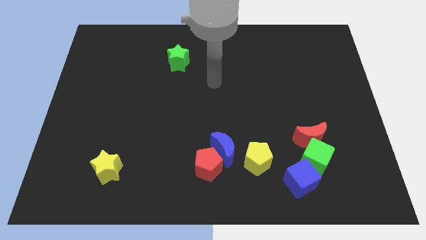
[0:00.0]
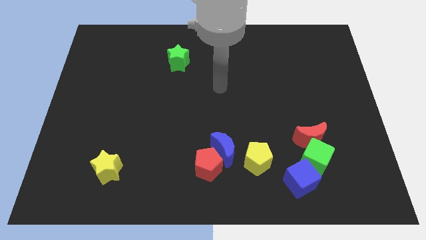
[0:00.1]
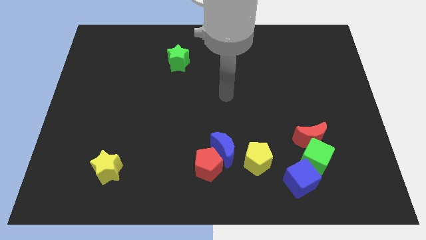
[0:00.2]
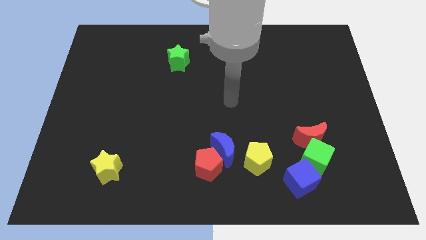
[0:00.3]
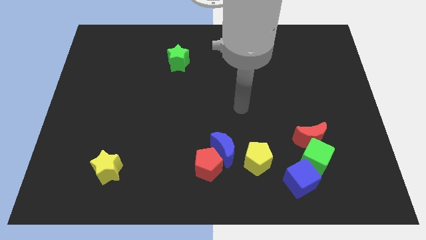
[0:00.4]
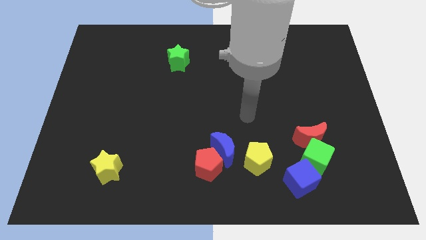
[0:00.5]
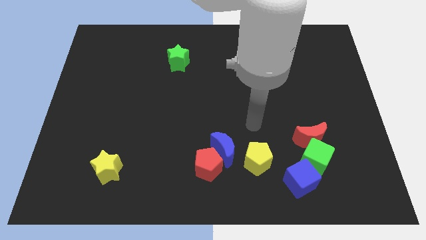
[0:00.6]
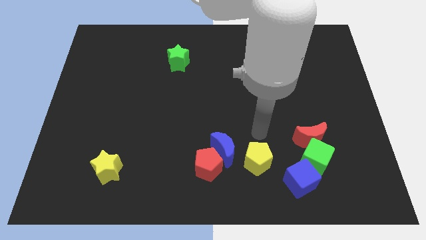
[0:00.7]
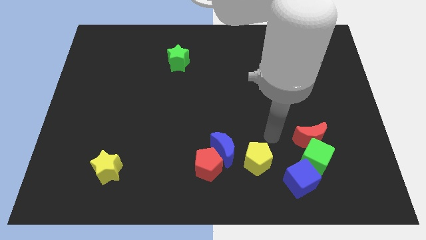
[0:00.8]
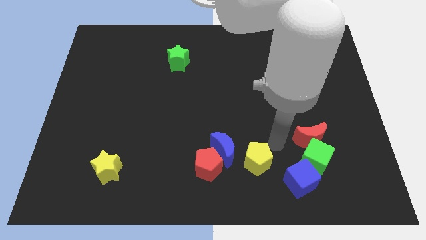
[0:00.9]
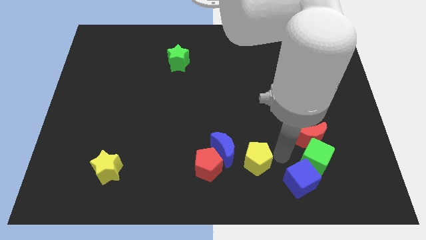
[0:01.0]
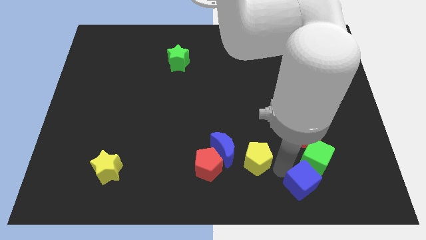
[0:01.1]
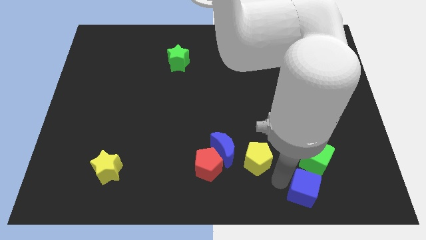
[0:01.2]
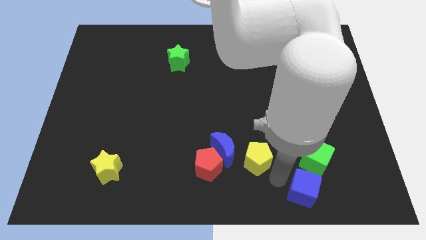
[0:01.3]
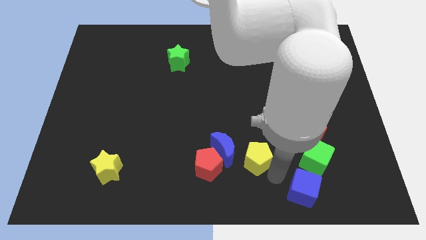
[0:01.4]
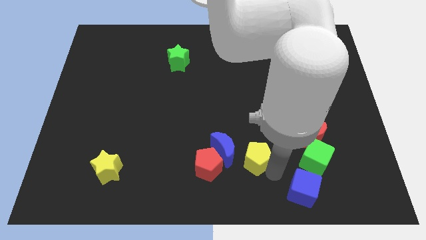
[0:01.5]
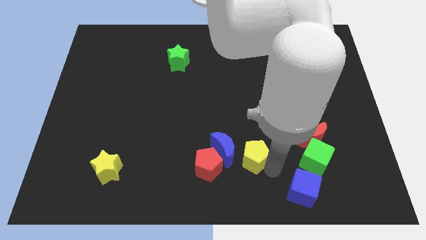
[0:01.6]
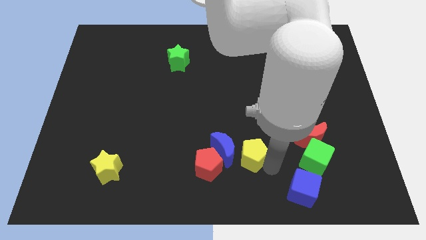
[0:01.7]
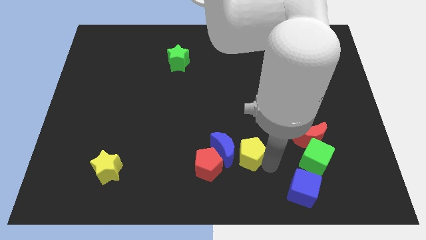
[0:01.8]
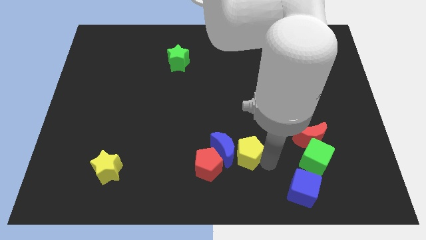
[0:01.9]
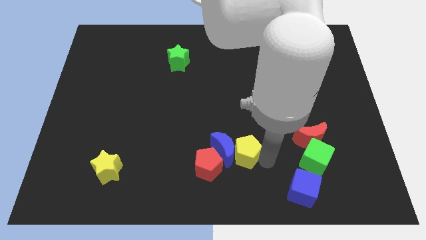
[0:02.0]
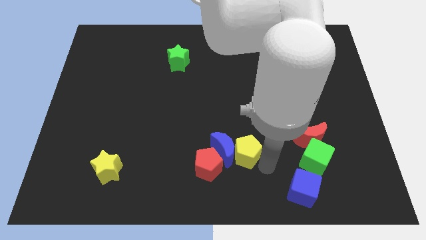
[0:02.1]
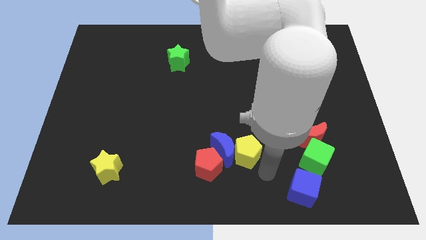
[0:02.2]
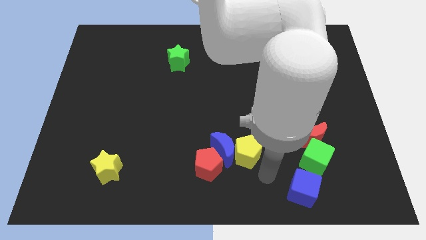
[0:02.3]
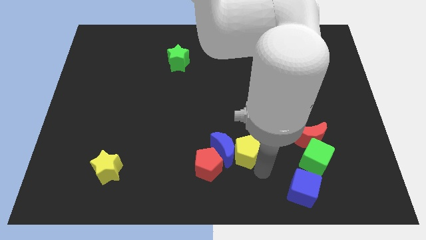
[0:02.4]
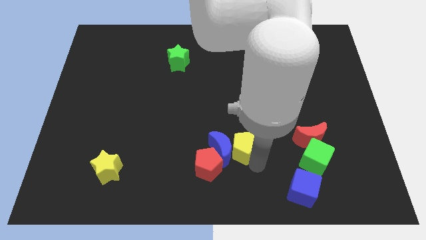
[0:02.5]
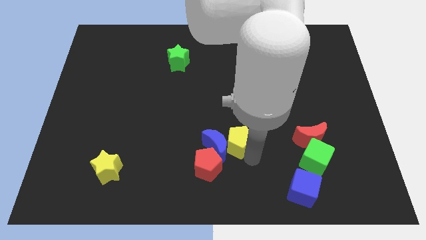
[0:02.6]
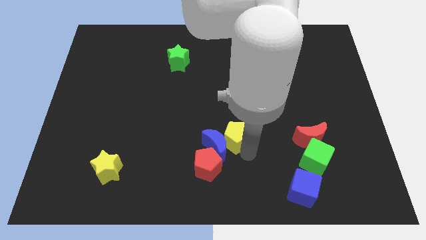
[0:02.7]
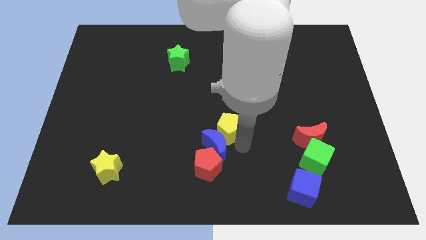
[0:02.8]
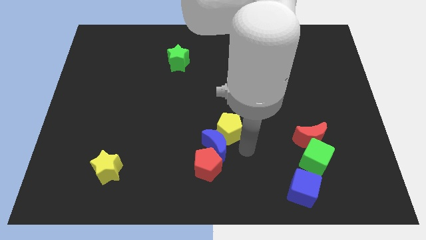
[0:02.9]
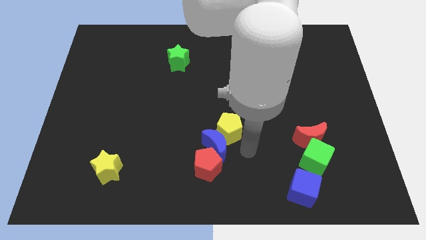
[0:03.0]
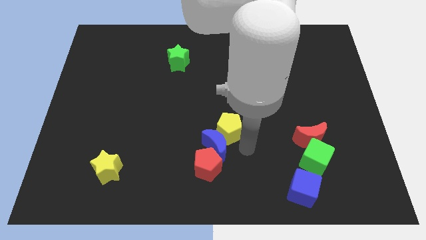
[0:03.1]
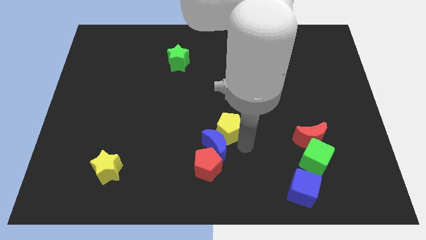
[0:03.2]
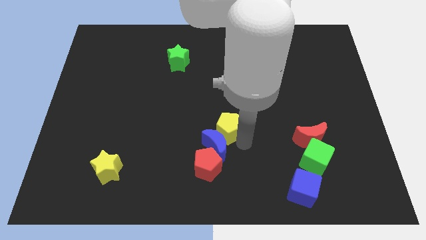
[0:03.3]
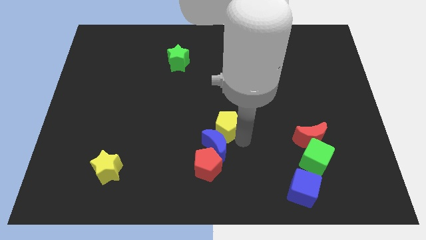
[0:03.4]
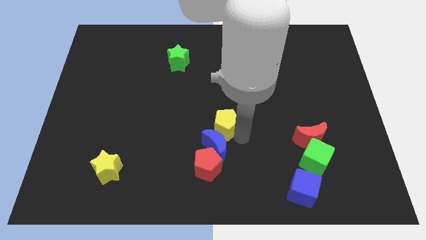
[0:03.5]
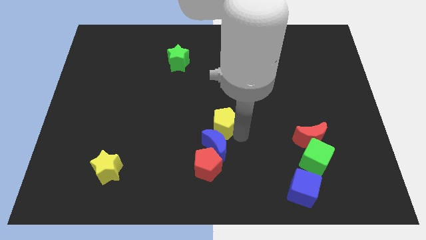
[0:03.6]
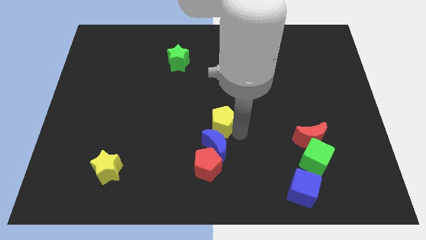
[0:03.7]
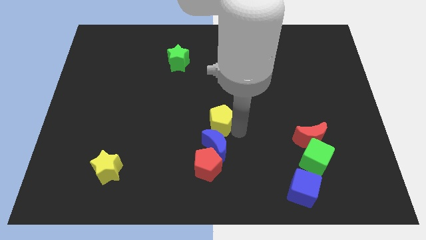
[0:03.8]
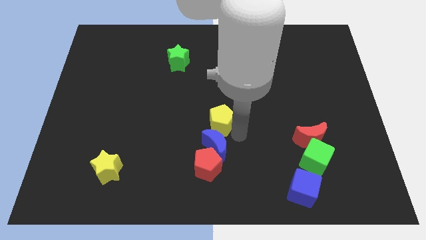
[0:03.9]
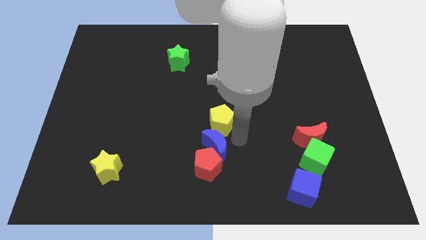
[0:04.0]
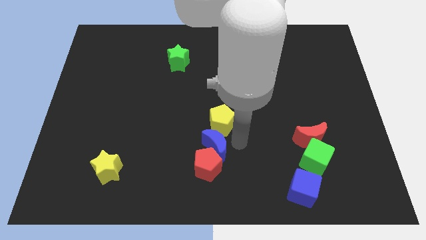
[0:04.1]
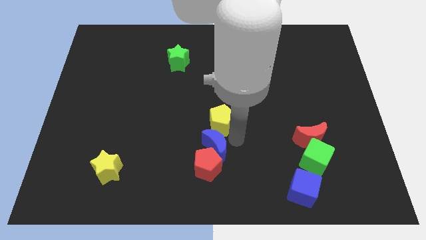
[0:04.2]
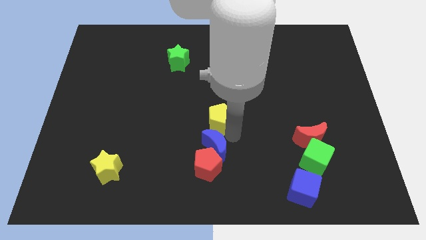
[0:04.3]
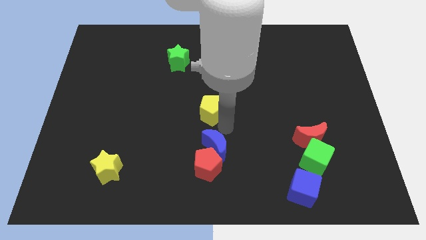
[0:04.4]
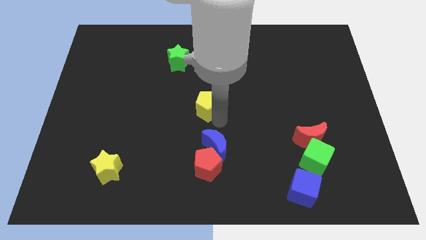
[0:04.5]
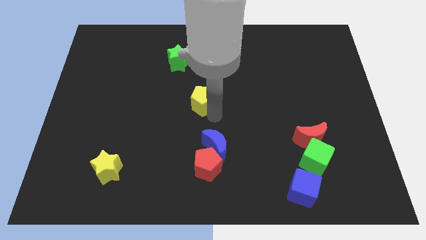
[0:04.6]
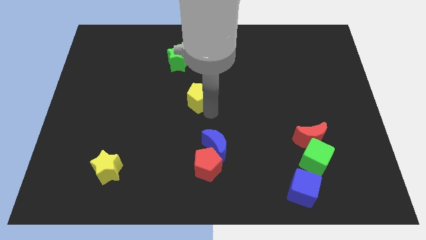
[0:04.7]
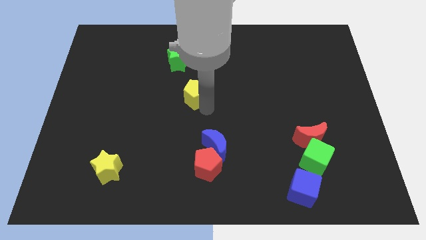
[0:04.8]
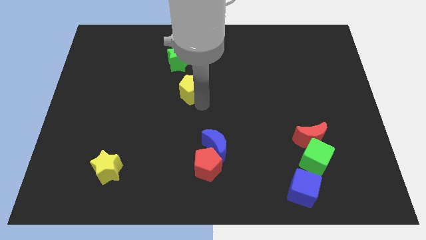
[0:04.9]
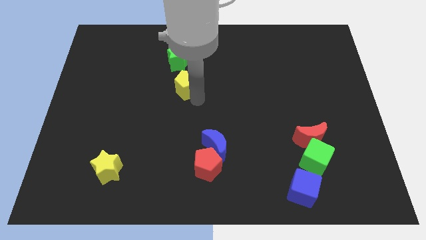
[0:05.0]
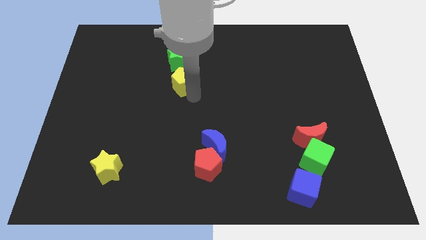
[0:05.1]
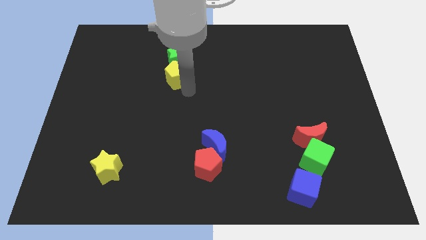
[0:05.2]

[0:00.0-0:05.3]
put the yellow pentagon to the green star

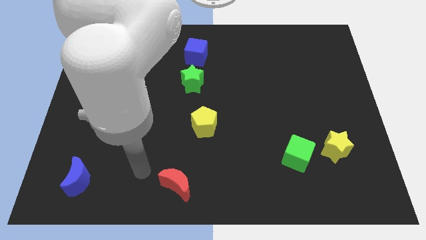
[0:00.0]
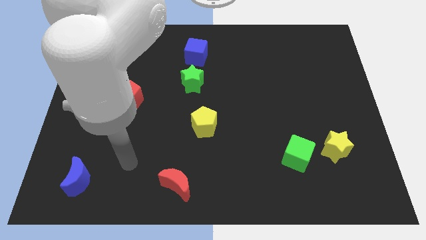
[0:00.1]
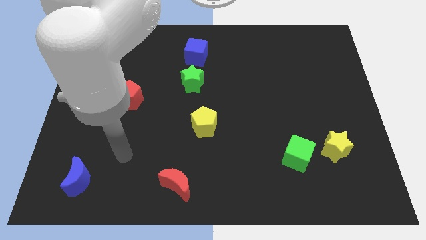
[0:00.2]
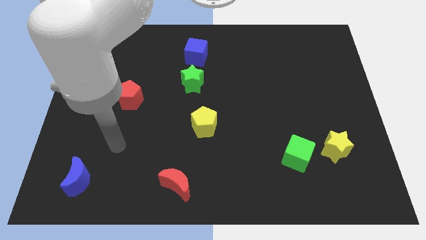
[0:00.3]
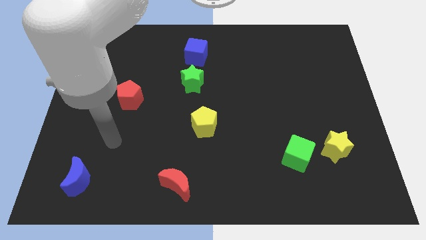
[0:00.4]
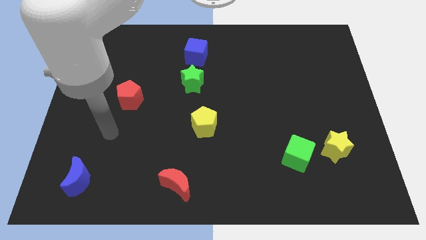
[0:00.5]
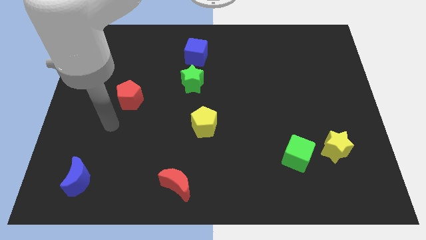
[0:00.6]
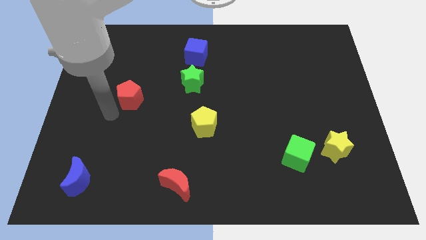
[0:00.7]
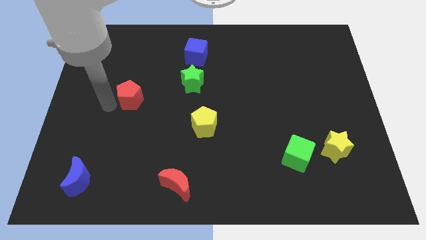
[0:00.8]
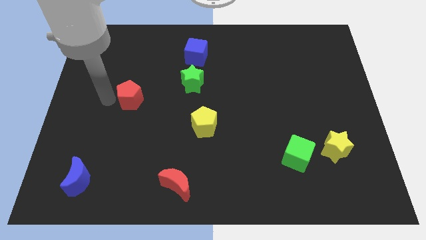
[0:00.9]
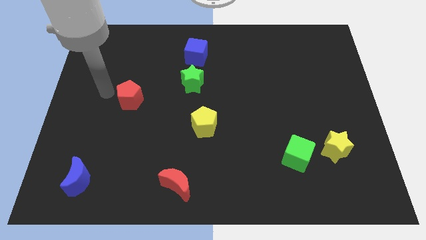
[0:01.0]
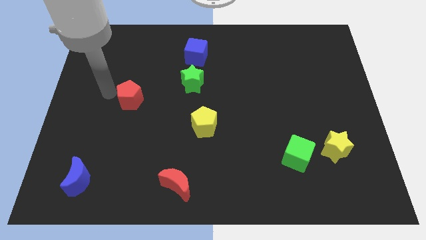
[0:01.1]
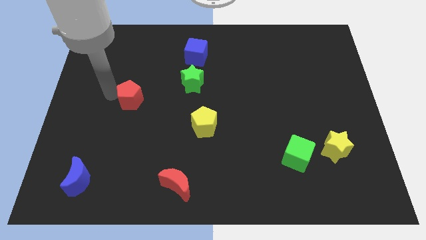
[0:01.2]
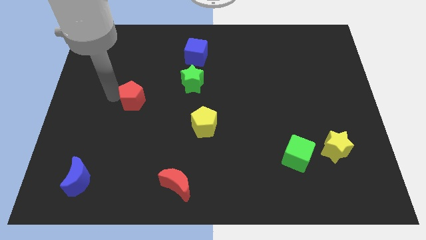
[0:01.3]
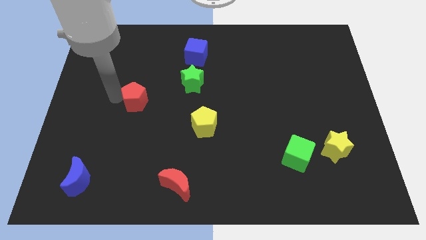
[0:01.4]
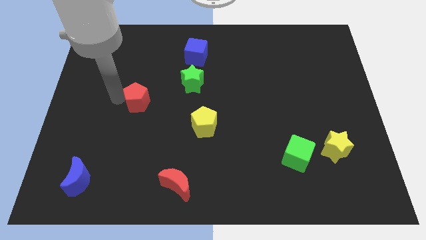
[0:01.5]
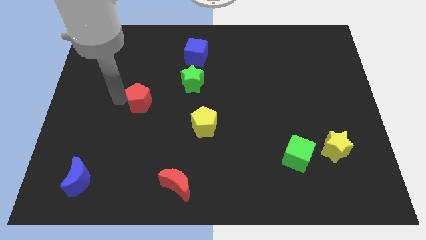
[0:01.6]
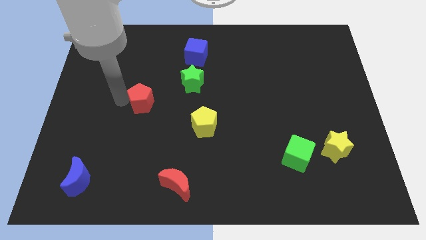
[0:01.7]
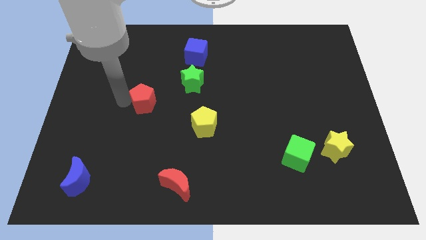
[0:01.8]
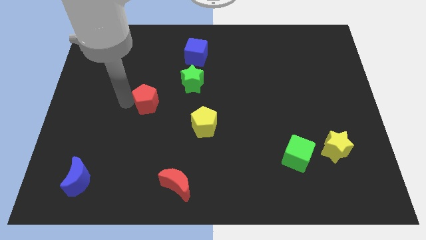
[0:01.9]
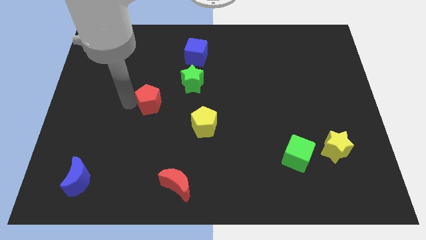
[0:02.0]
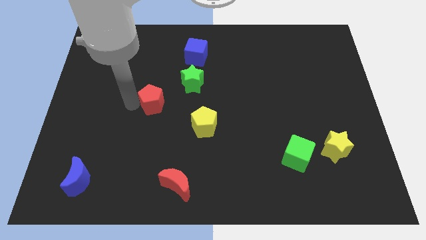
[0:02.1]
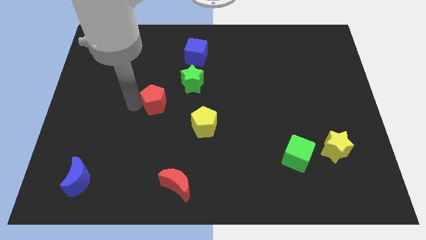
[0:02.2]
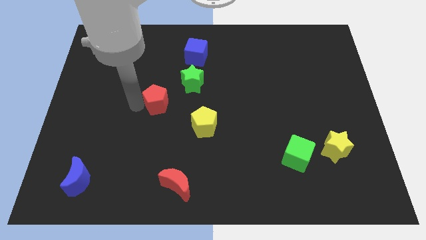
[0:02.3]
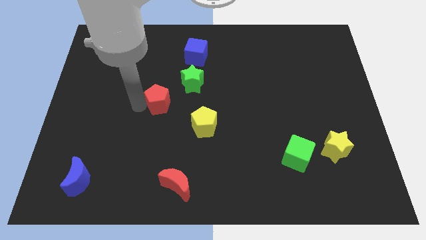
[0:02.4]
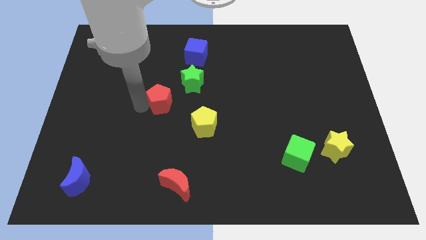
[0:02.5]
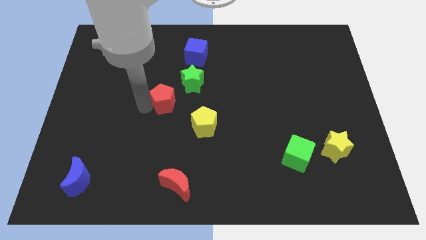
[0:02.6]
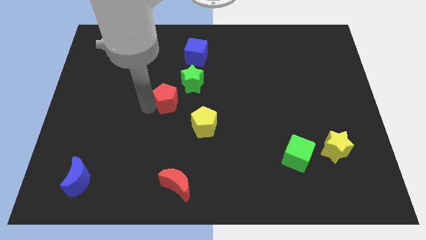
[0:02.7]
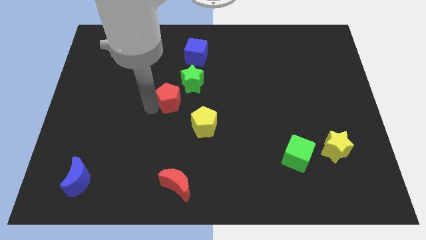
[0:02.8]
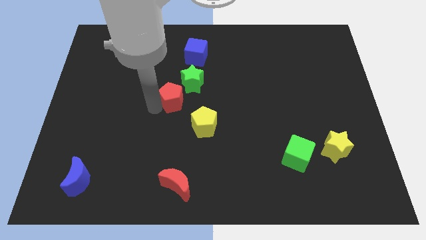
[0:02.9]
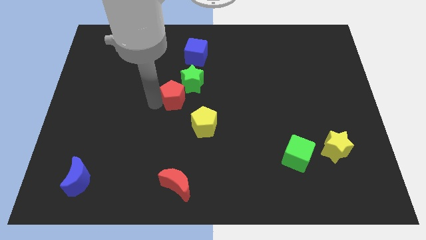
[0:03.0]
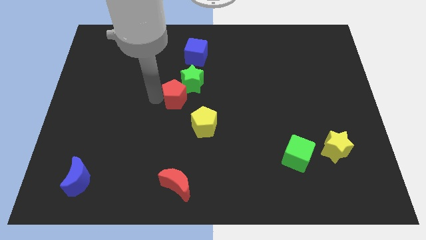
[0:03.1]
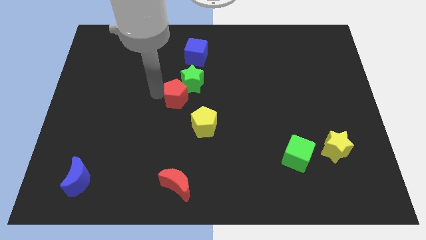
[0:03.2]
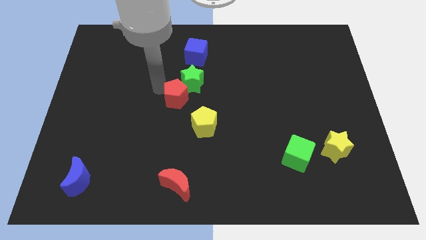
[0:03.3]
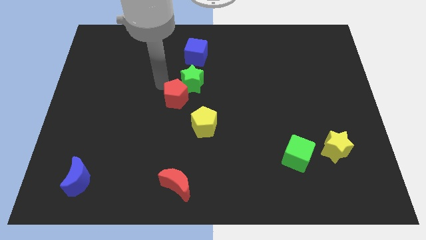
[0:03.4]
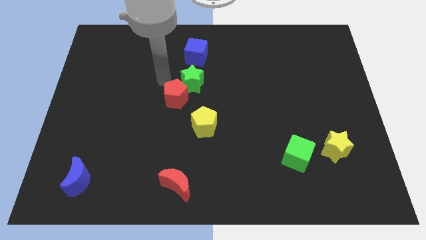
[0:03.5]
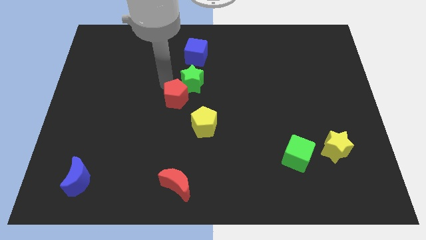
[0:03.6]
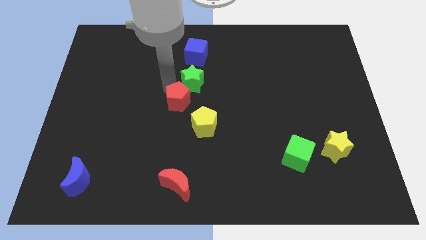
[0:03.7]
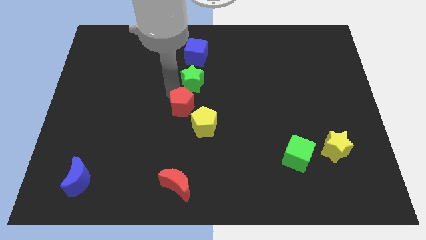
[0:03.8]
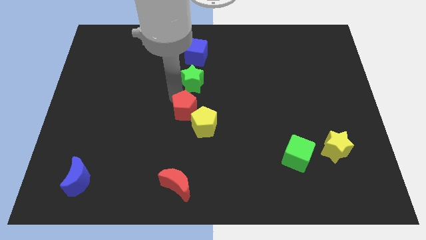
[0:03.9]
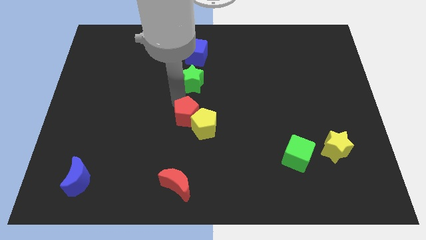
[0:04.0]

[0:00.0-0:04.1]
move the red pentagon towards the yellow pentagon
